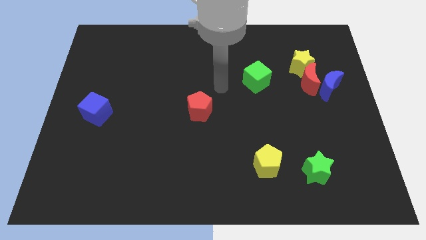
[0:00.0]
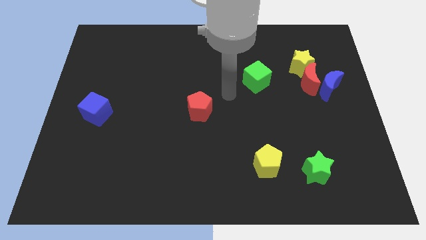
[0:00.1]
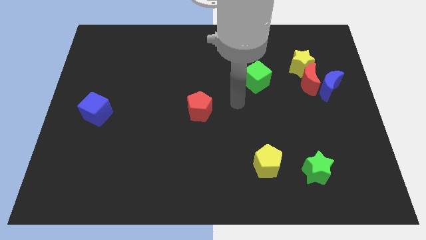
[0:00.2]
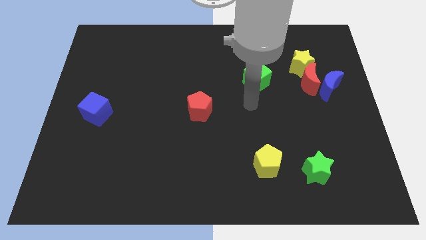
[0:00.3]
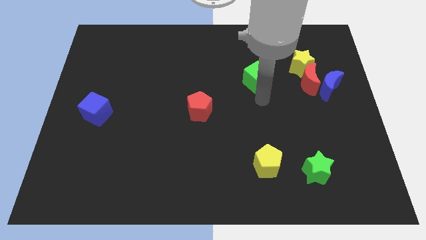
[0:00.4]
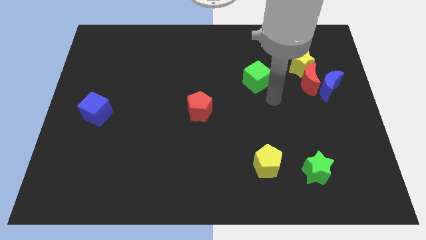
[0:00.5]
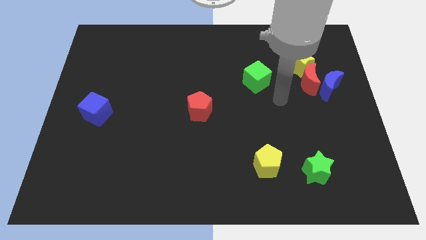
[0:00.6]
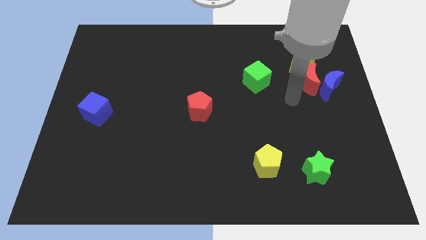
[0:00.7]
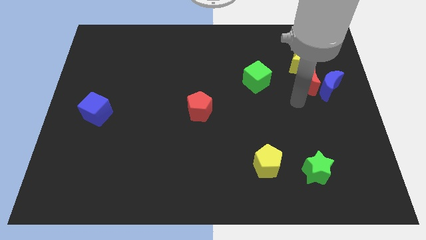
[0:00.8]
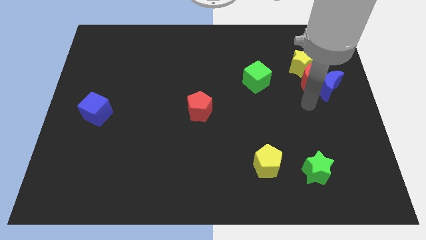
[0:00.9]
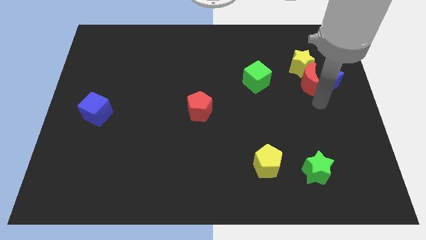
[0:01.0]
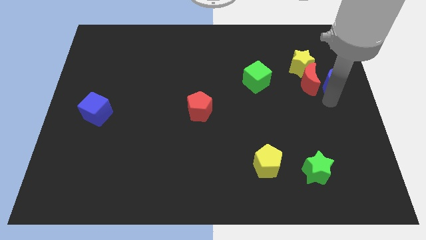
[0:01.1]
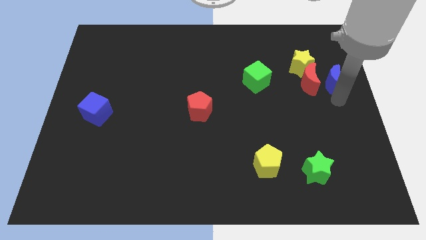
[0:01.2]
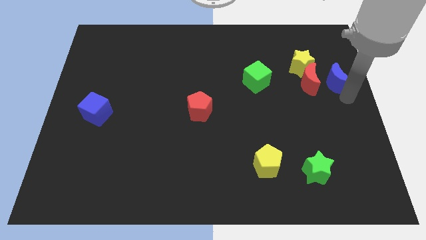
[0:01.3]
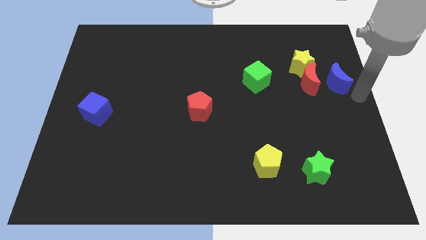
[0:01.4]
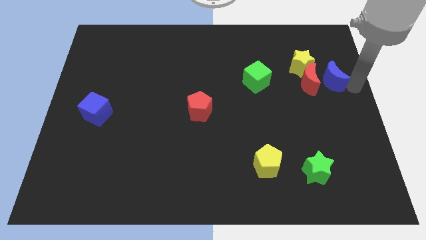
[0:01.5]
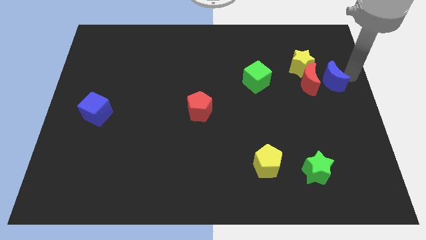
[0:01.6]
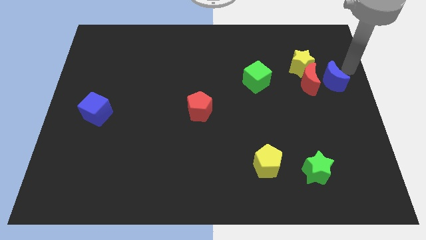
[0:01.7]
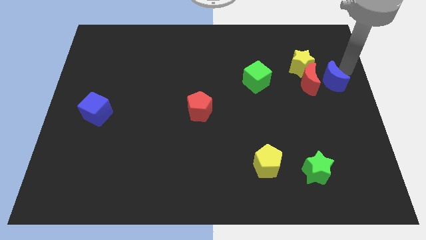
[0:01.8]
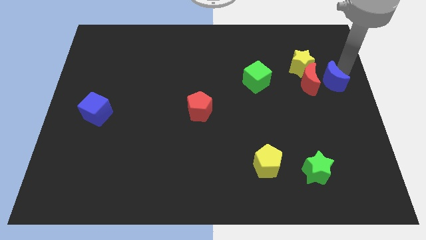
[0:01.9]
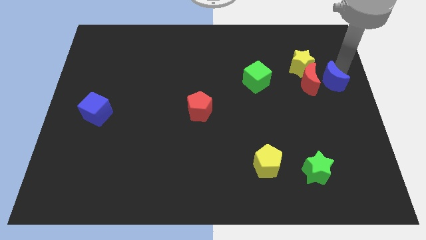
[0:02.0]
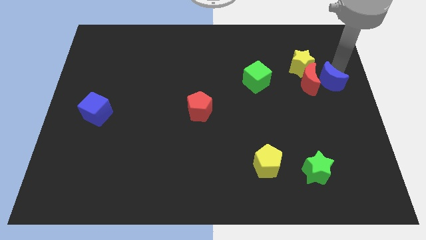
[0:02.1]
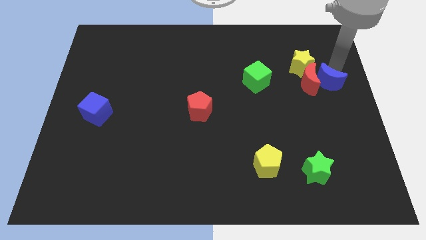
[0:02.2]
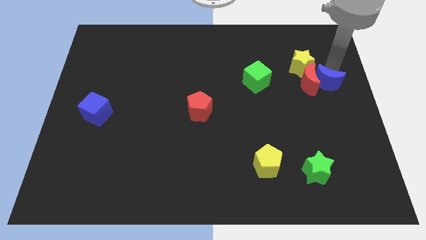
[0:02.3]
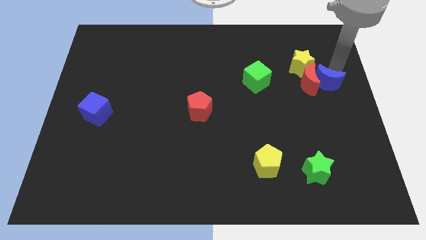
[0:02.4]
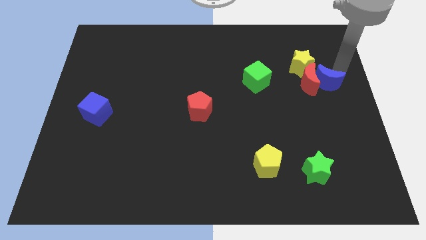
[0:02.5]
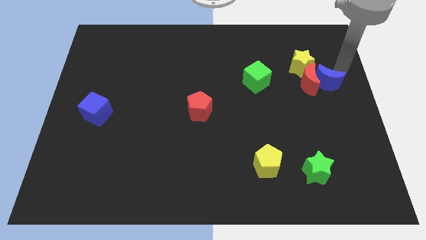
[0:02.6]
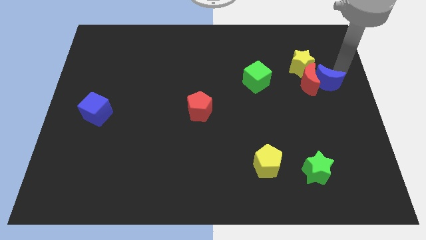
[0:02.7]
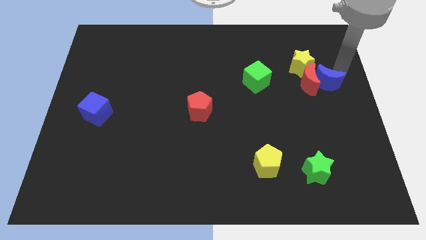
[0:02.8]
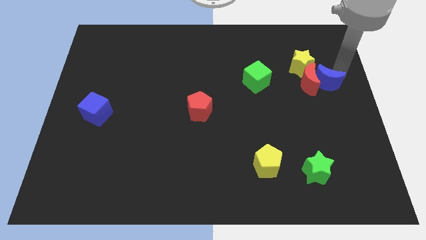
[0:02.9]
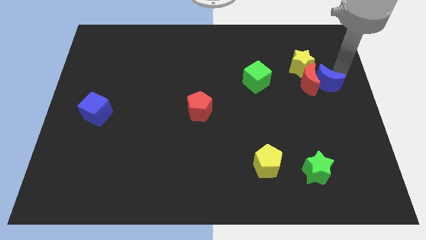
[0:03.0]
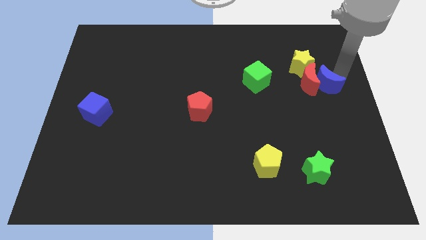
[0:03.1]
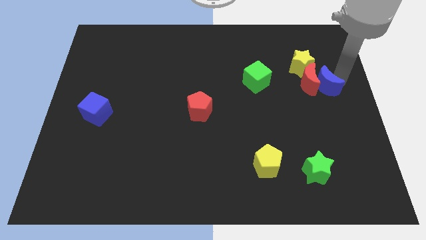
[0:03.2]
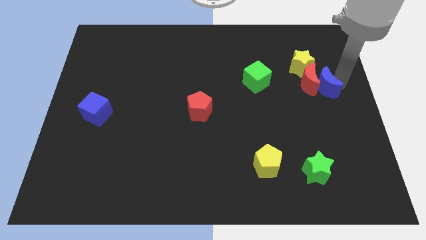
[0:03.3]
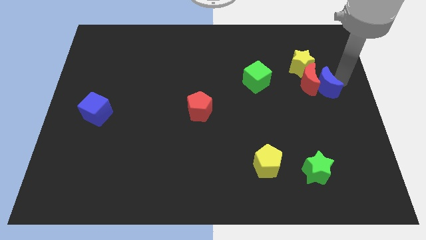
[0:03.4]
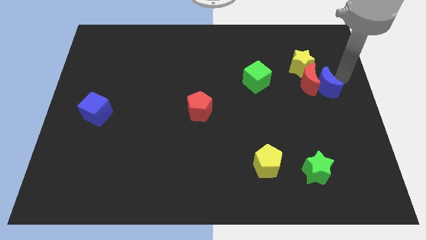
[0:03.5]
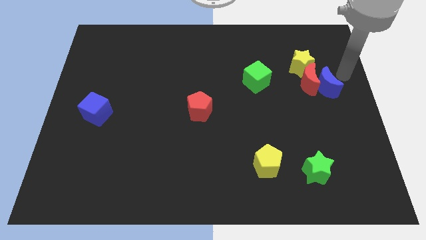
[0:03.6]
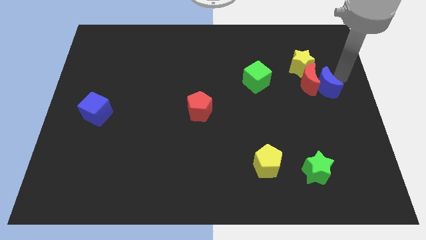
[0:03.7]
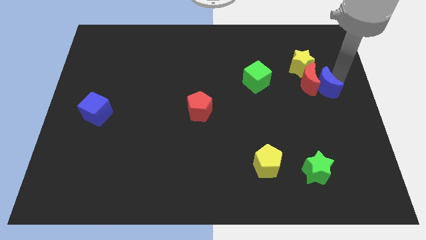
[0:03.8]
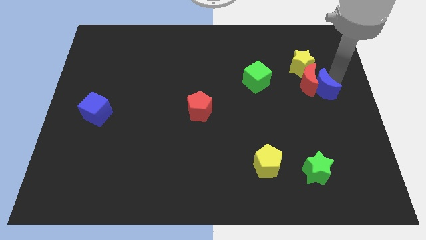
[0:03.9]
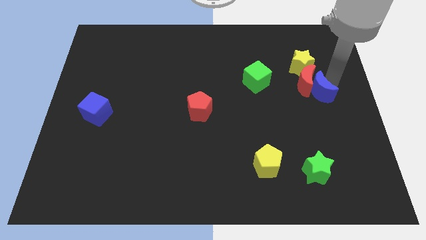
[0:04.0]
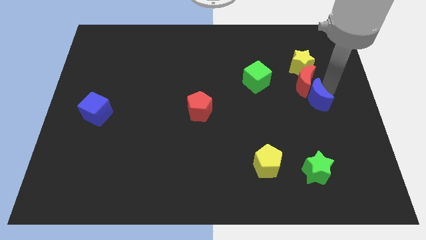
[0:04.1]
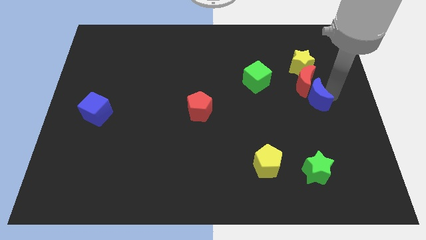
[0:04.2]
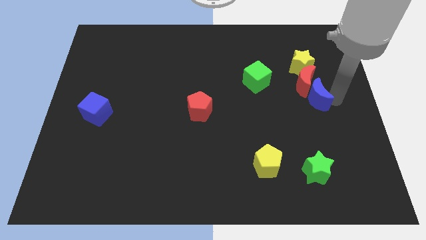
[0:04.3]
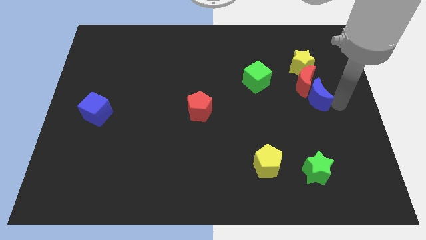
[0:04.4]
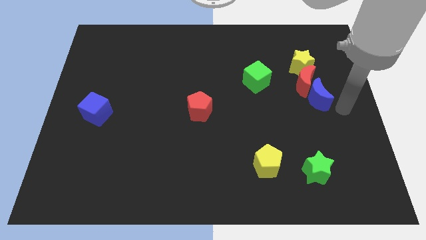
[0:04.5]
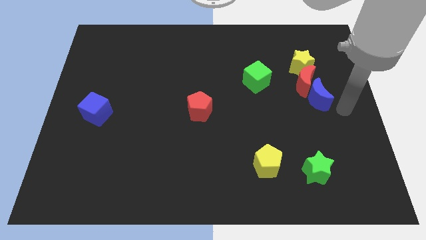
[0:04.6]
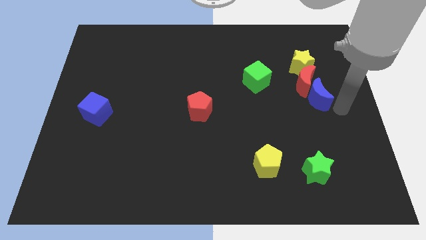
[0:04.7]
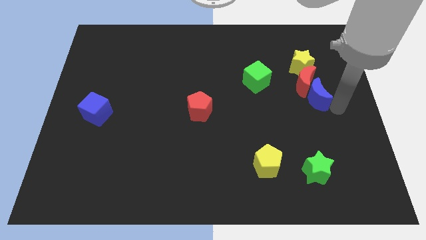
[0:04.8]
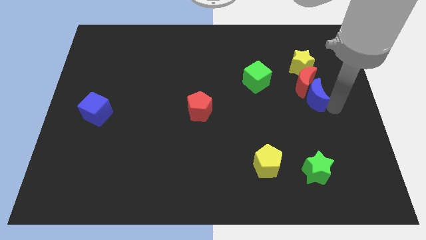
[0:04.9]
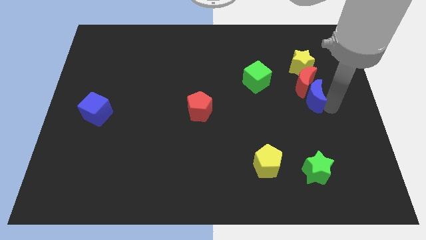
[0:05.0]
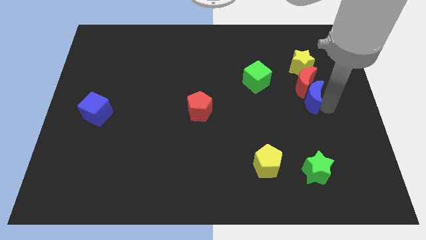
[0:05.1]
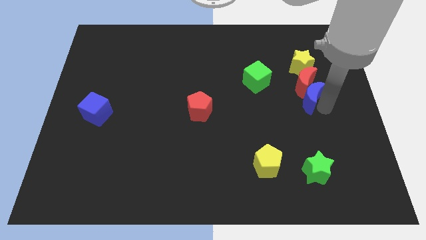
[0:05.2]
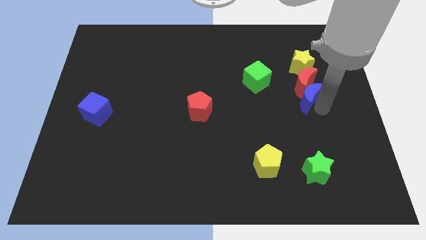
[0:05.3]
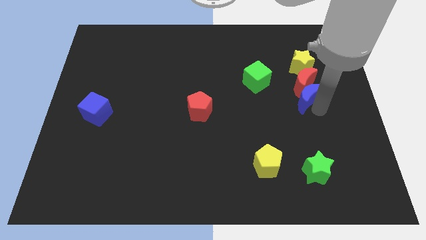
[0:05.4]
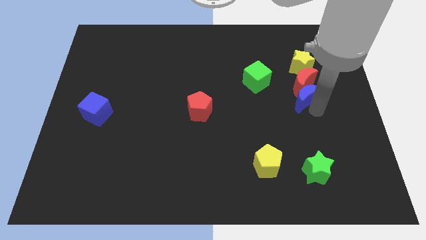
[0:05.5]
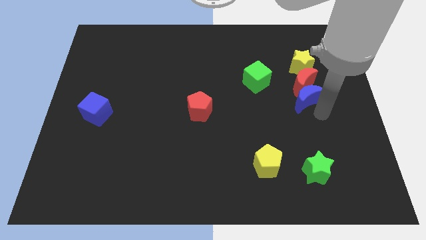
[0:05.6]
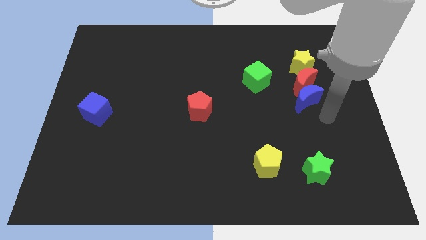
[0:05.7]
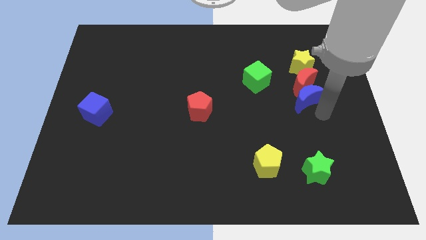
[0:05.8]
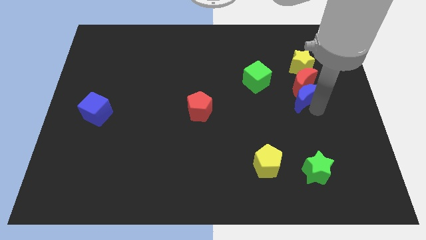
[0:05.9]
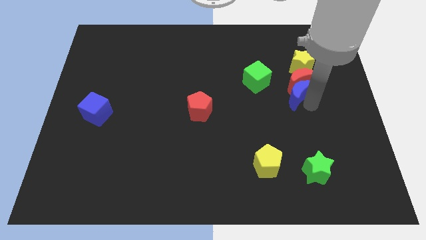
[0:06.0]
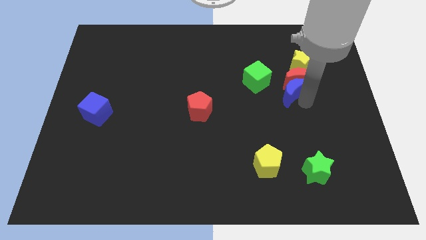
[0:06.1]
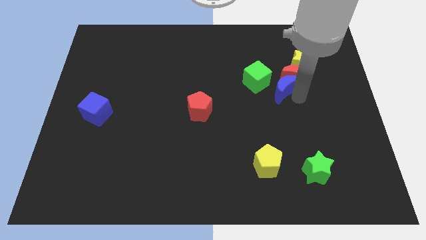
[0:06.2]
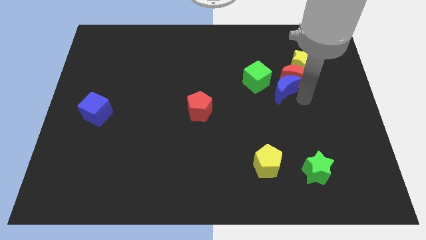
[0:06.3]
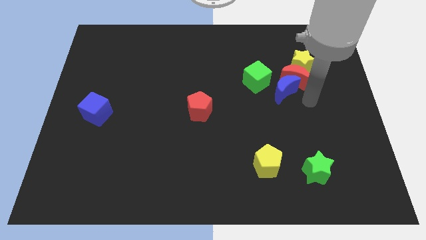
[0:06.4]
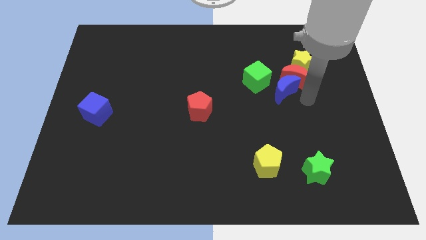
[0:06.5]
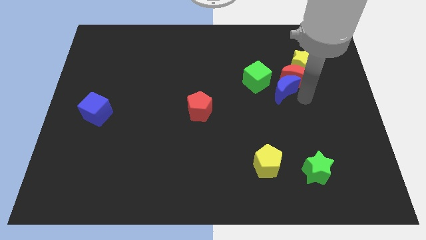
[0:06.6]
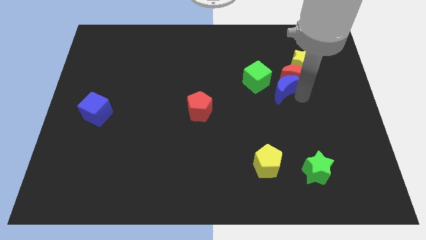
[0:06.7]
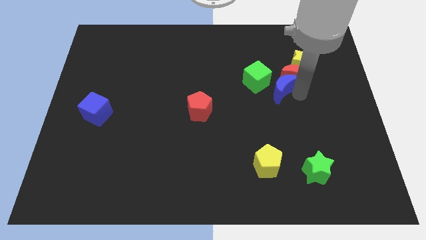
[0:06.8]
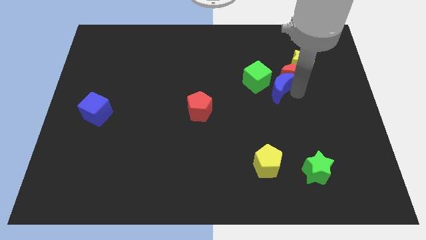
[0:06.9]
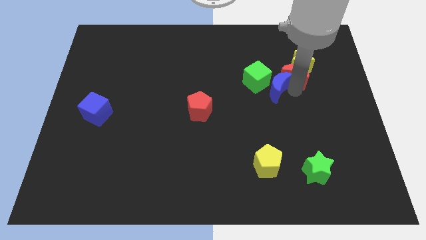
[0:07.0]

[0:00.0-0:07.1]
slide the blue moon next to the green cube

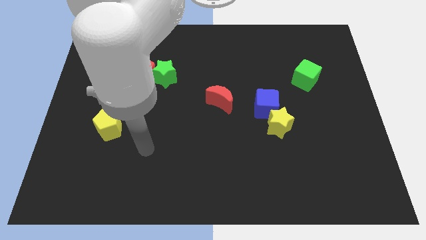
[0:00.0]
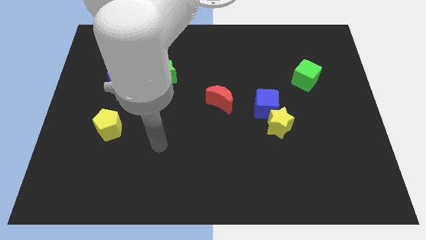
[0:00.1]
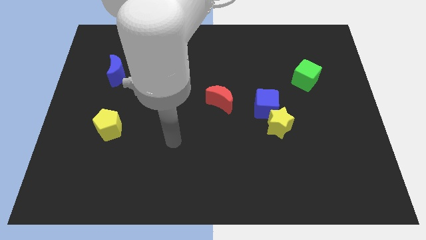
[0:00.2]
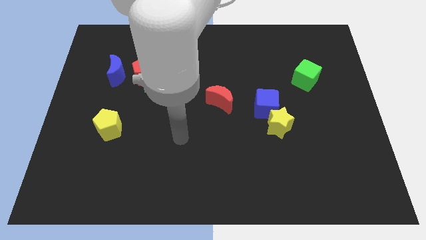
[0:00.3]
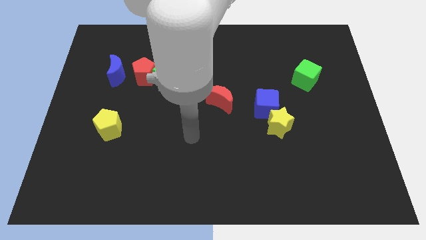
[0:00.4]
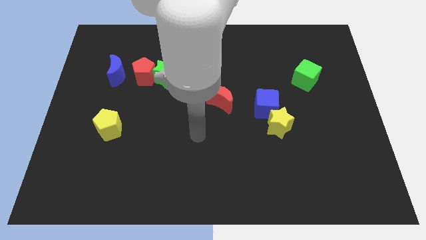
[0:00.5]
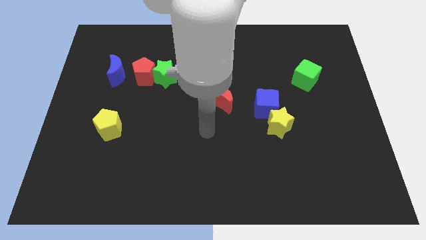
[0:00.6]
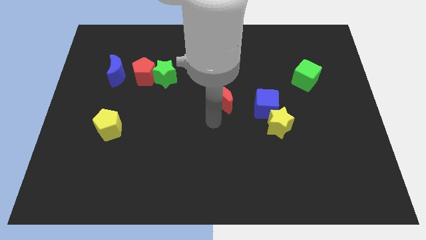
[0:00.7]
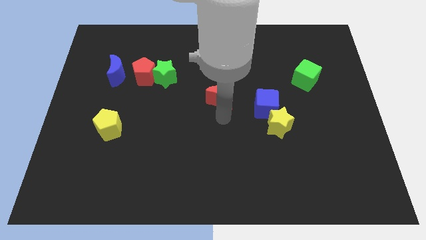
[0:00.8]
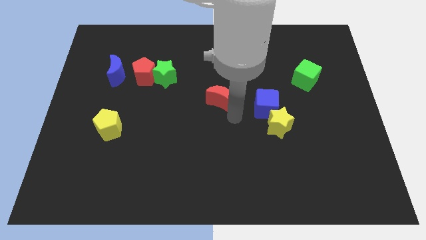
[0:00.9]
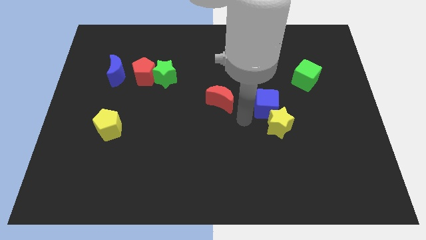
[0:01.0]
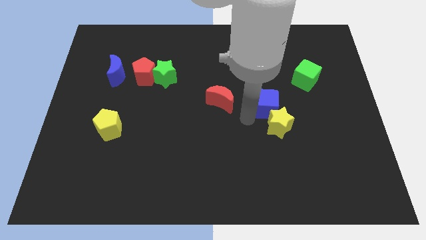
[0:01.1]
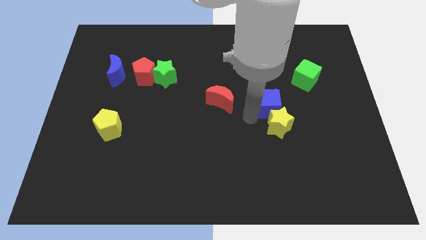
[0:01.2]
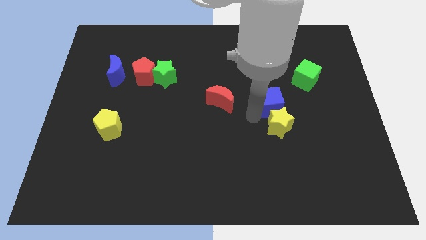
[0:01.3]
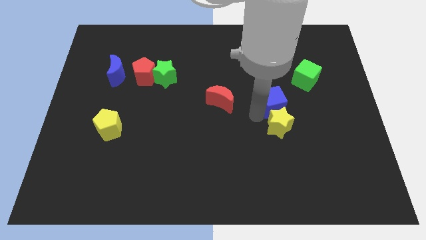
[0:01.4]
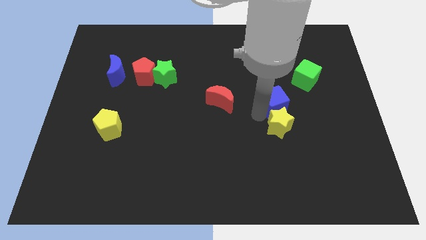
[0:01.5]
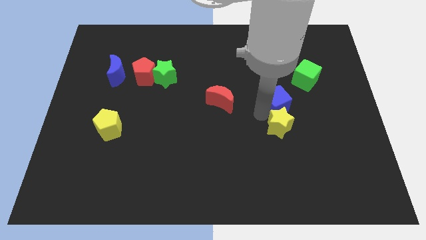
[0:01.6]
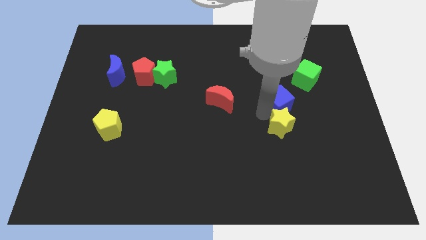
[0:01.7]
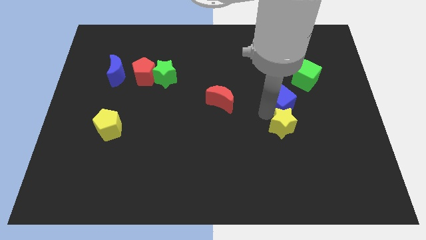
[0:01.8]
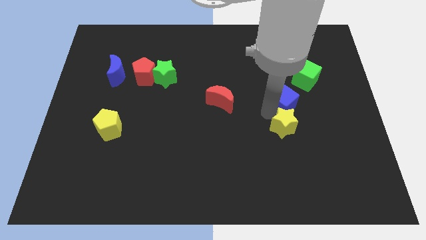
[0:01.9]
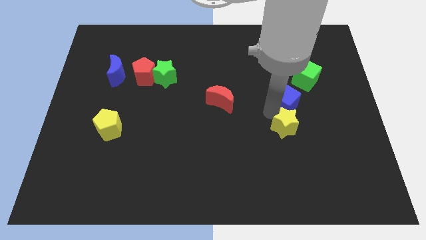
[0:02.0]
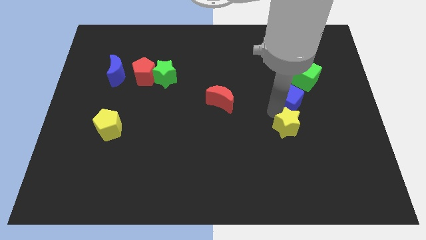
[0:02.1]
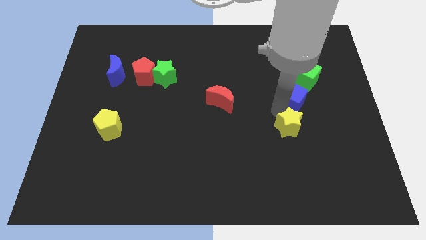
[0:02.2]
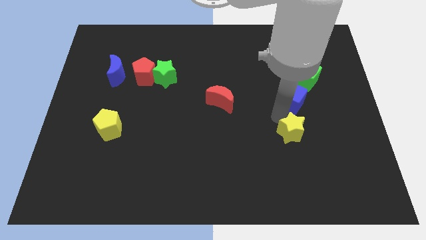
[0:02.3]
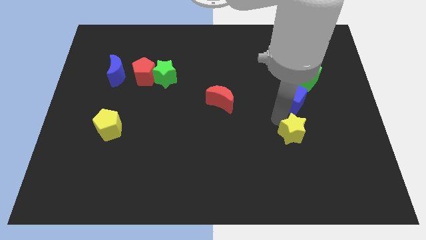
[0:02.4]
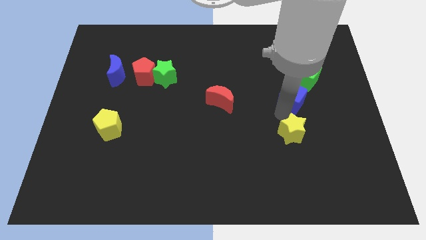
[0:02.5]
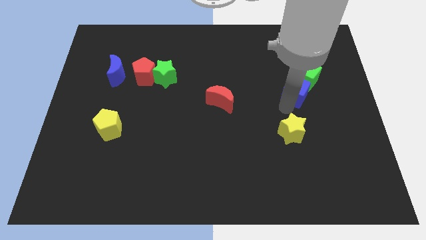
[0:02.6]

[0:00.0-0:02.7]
put the blue cube next to the green cube
